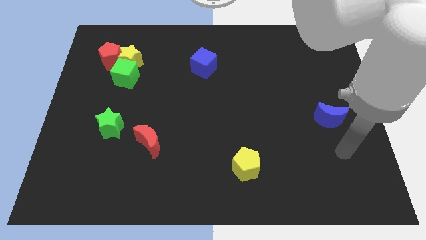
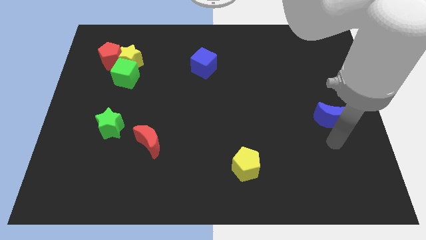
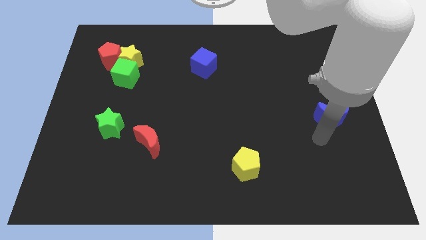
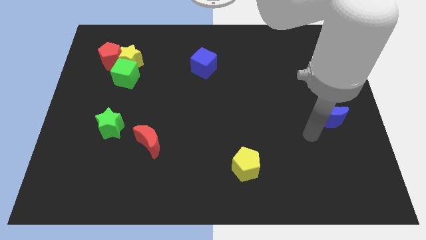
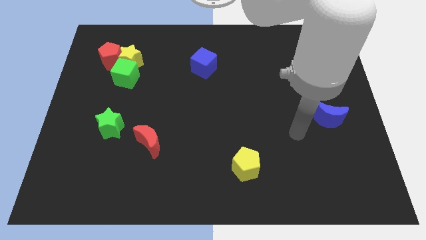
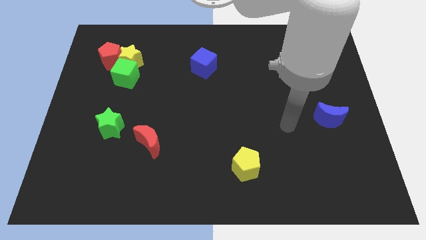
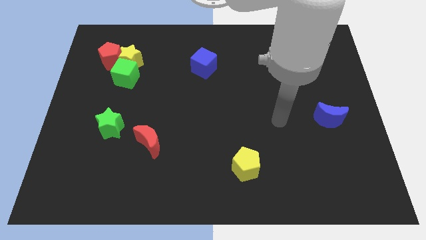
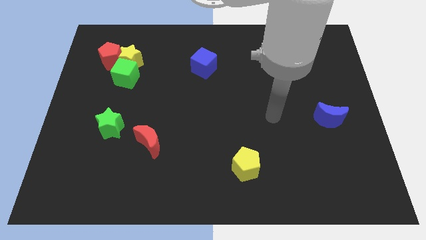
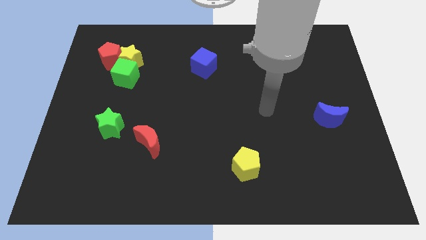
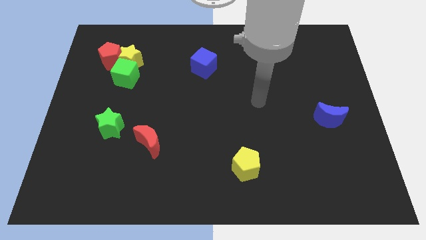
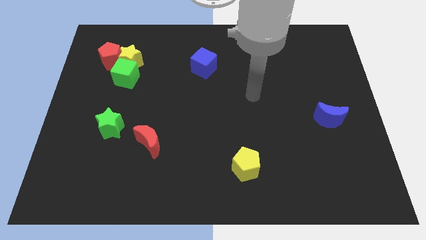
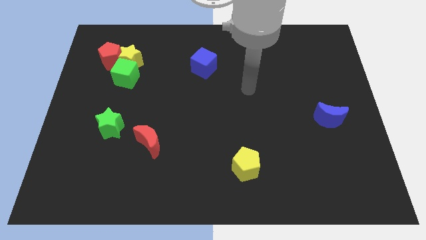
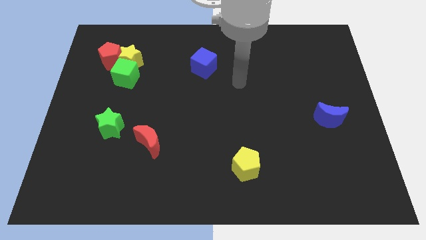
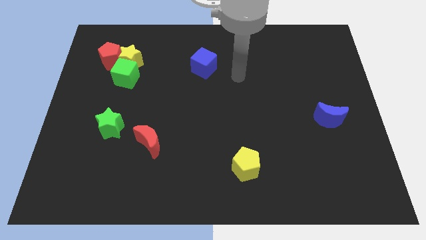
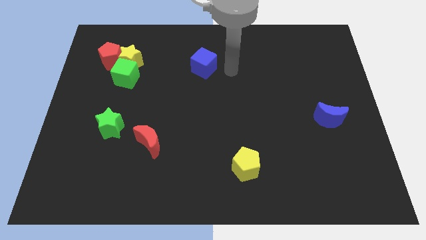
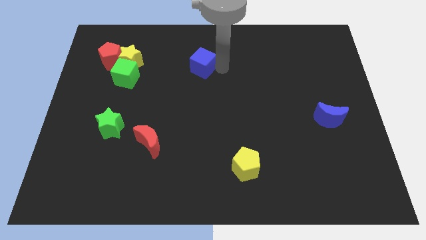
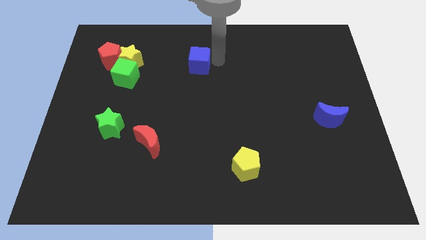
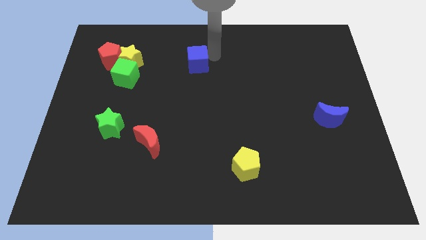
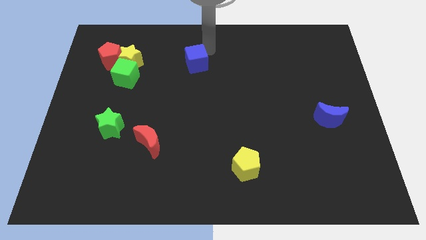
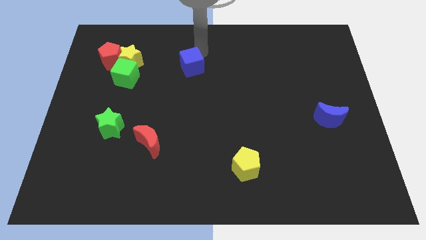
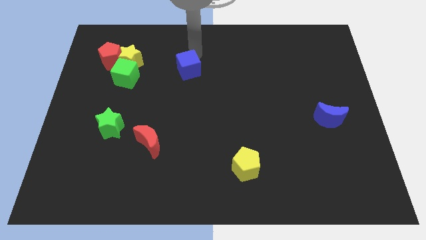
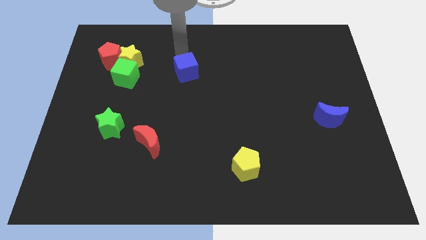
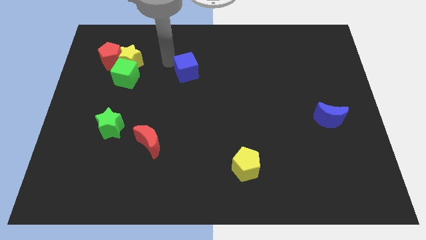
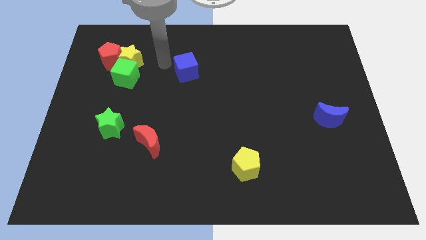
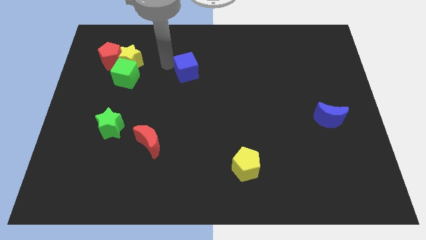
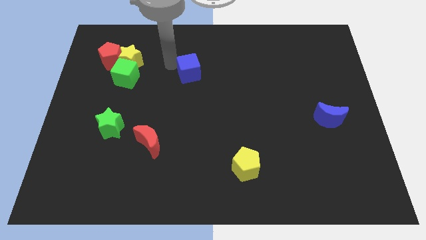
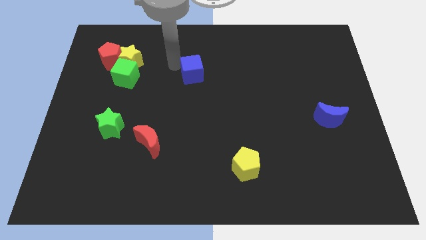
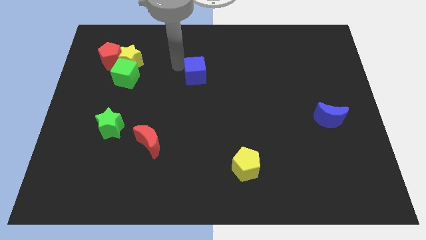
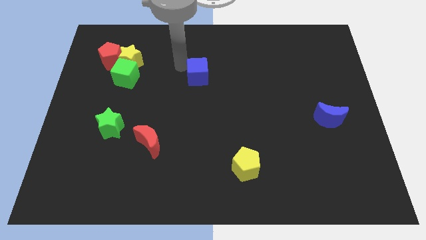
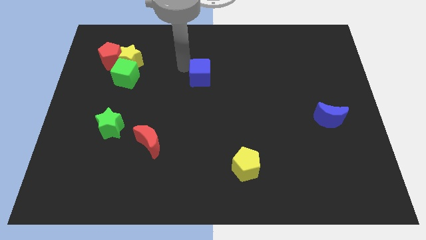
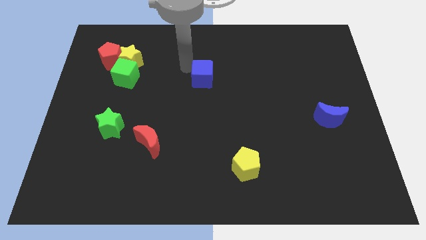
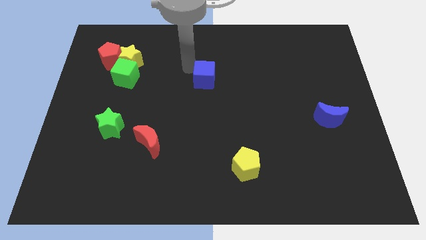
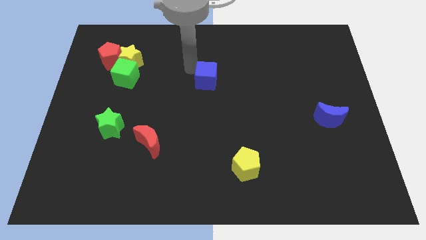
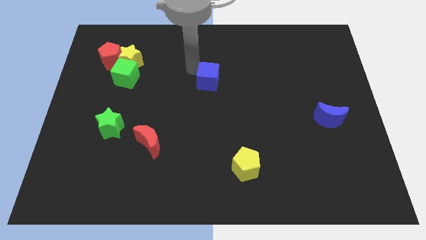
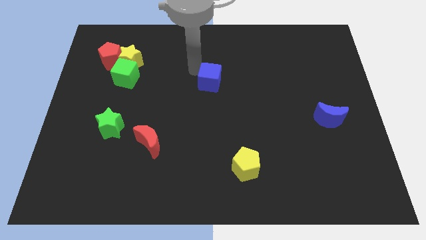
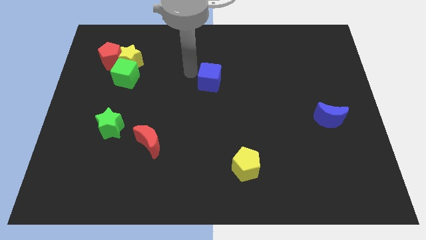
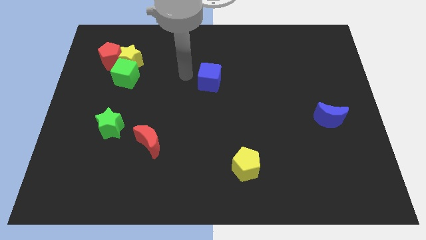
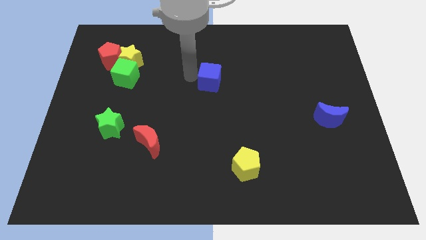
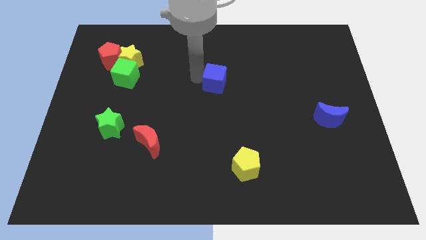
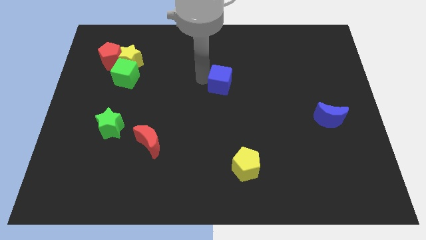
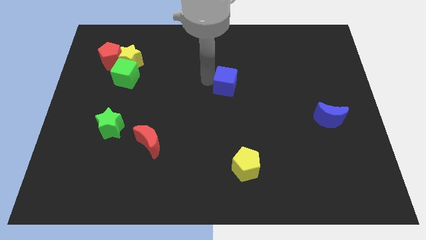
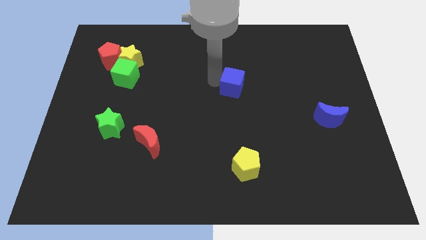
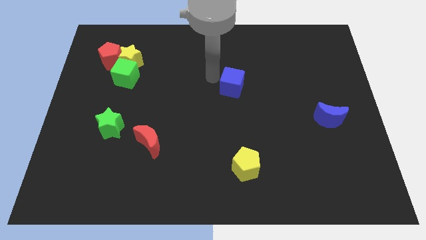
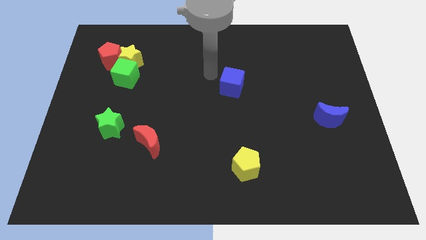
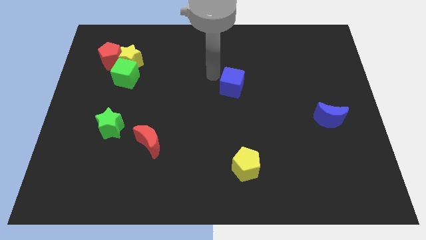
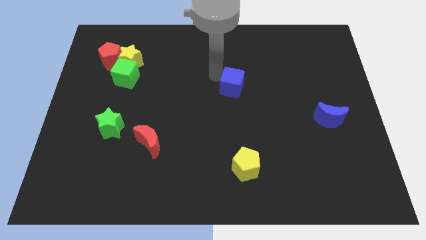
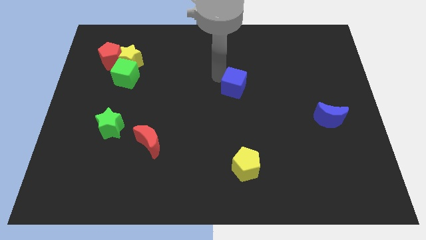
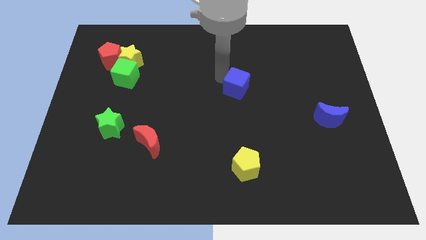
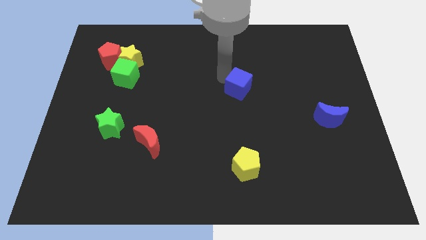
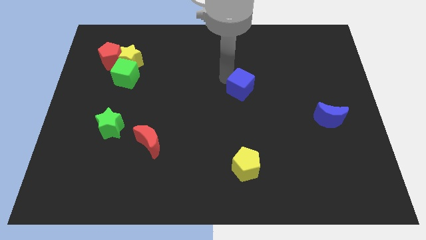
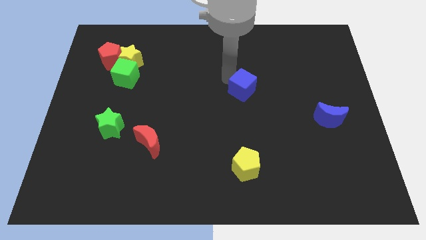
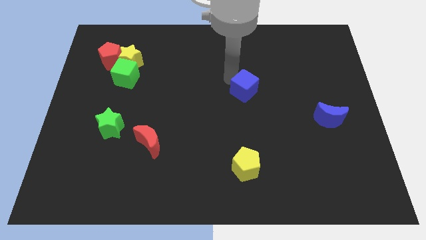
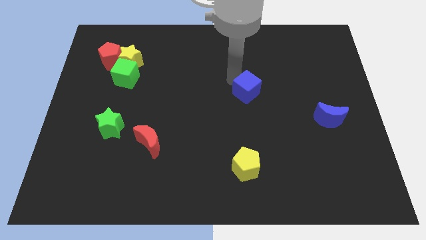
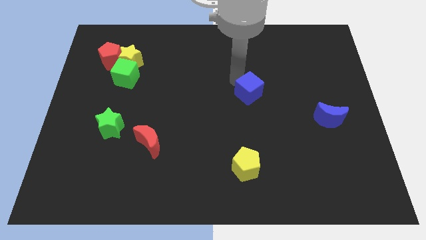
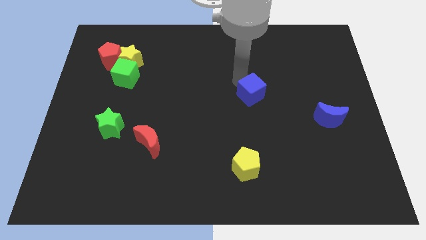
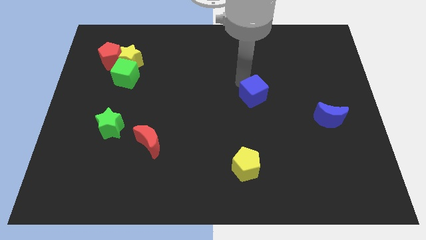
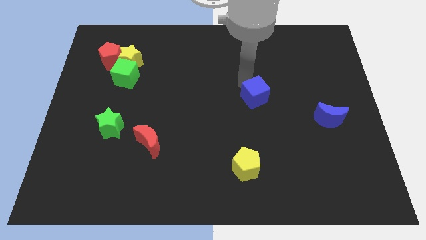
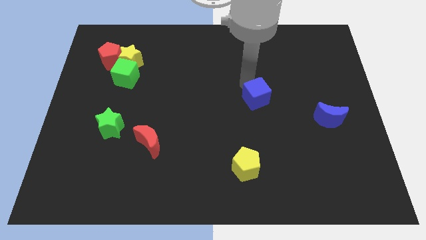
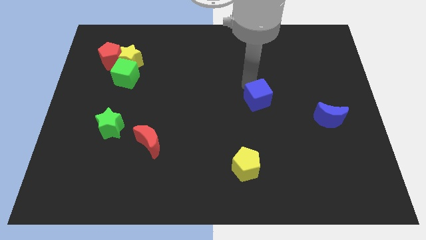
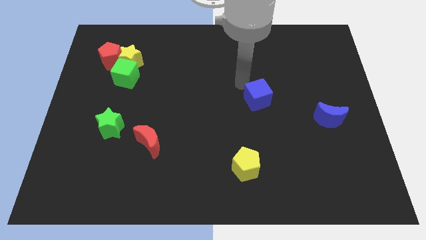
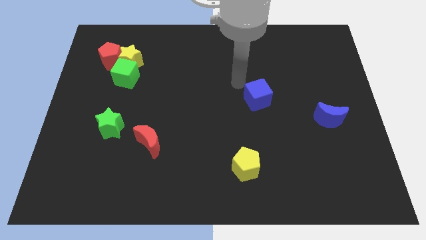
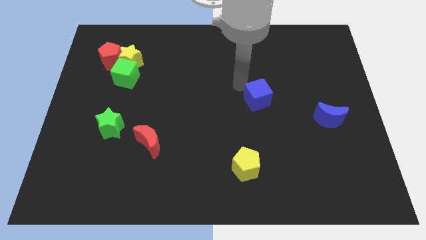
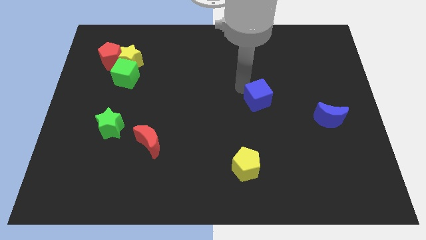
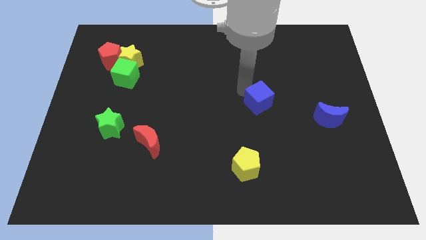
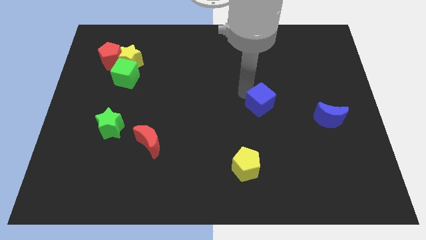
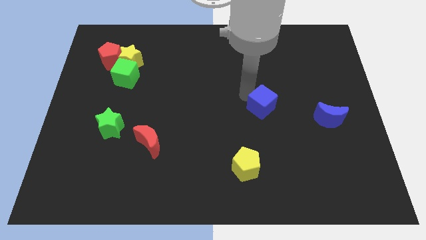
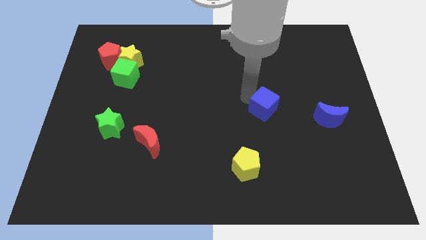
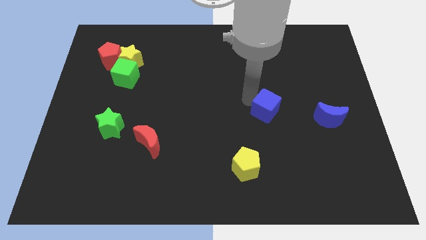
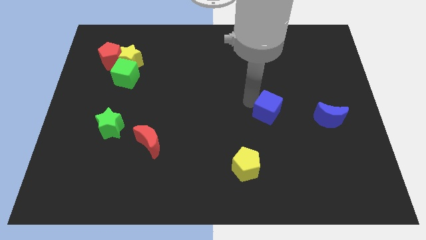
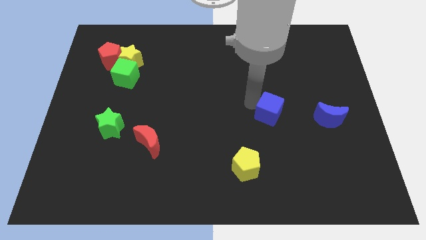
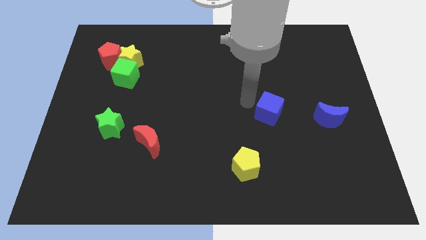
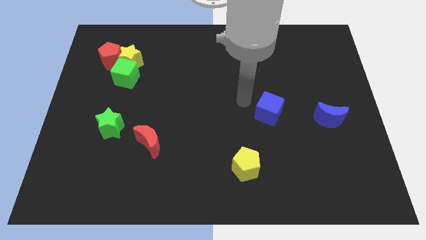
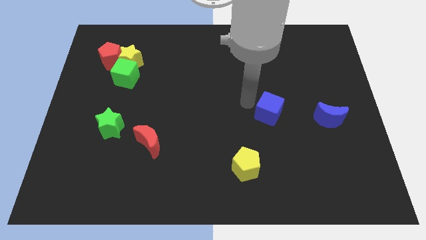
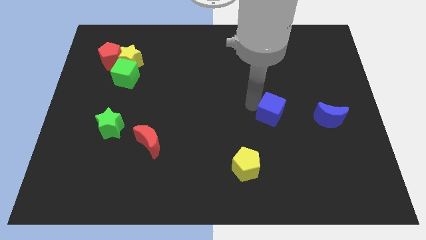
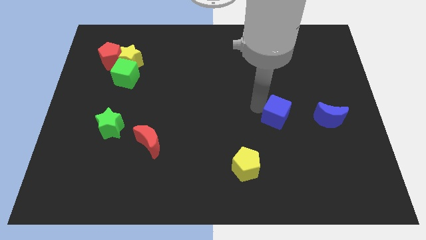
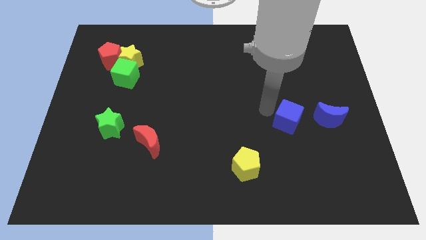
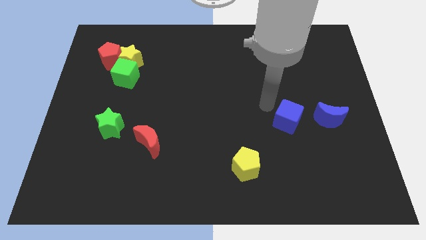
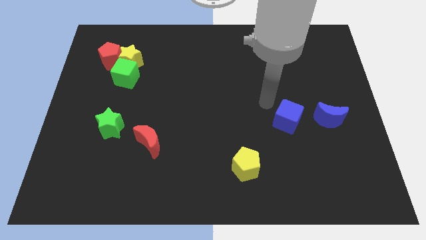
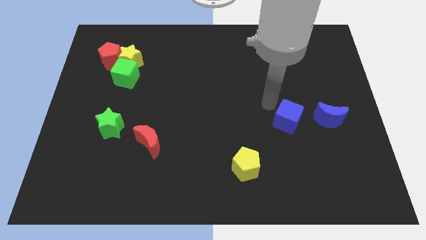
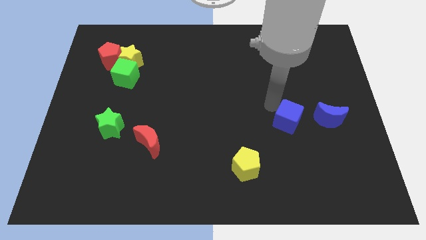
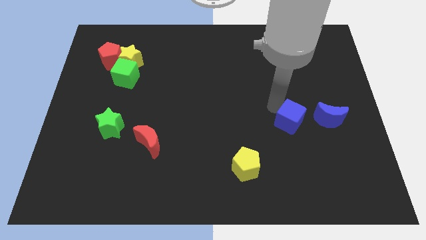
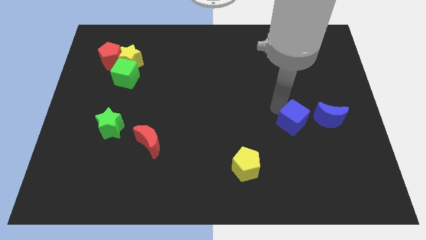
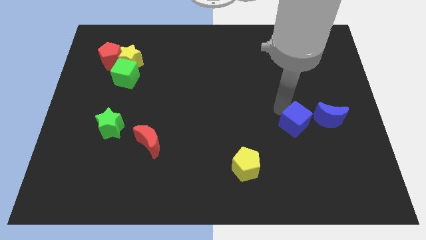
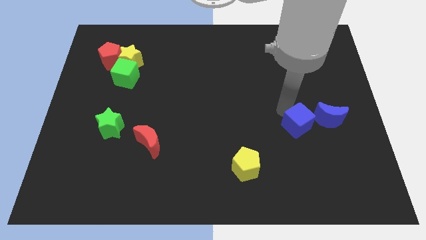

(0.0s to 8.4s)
move the blue cube diagonally down and to the left of the blue moon

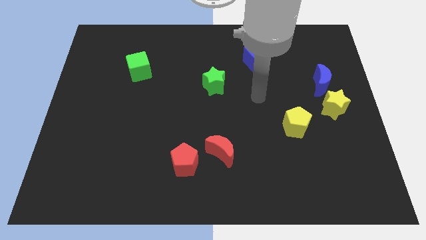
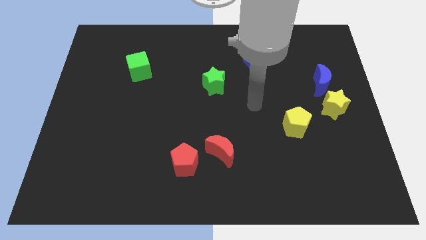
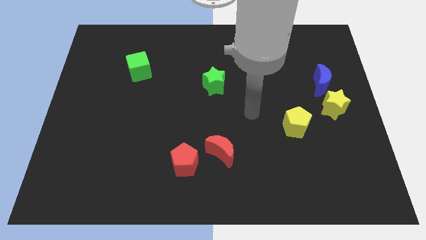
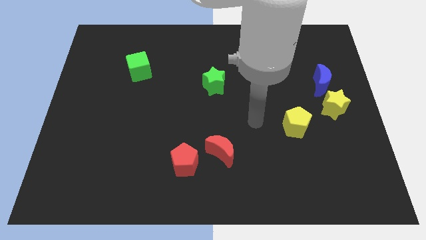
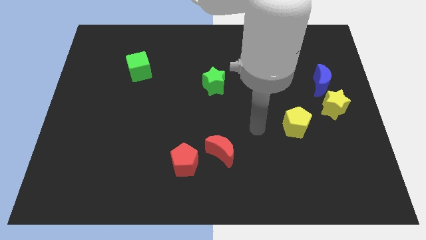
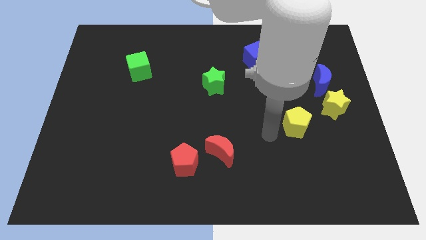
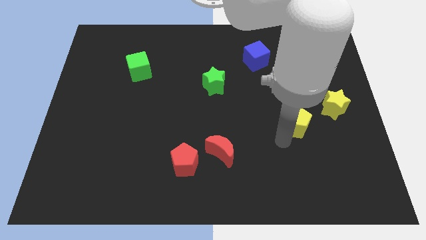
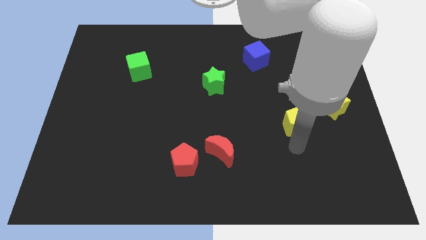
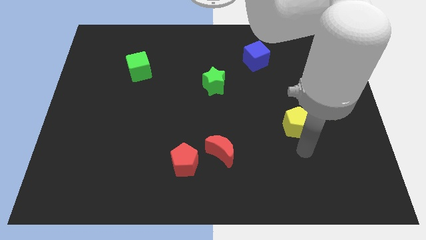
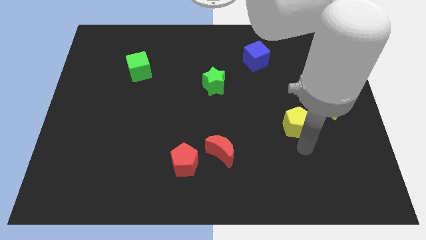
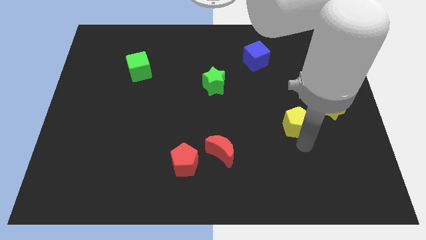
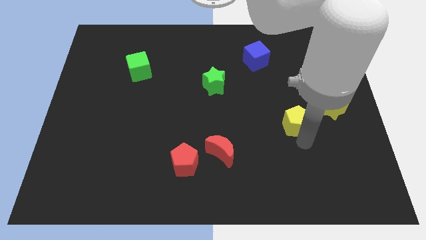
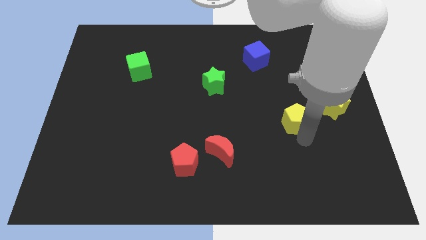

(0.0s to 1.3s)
move the yellow pentagon to the left side of the yellow star
